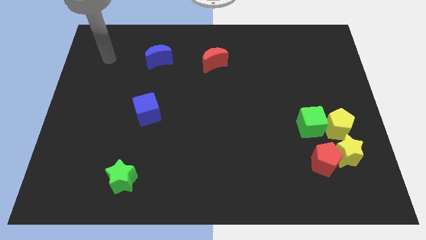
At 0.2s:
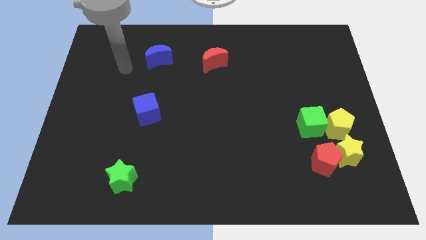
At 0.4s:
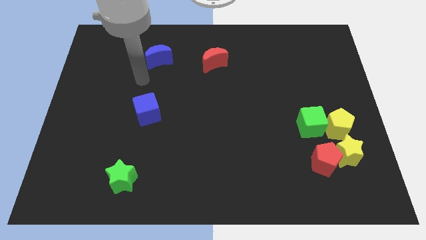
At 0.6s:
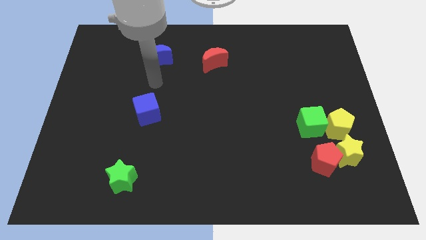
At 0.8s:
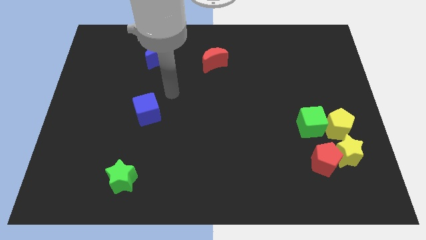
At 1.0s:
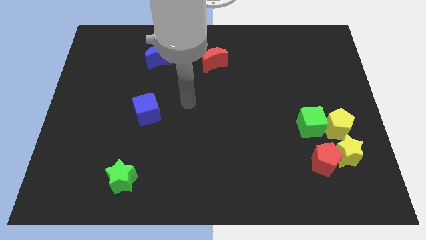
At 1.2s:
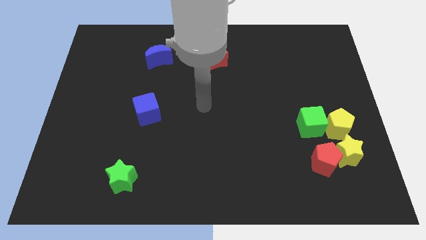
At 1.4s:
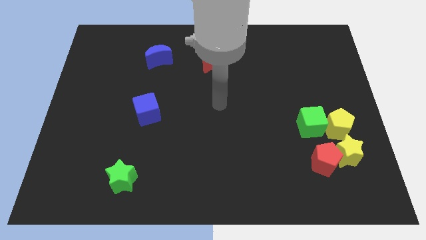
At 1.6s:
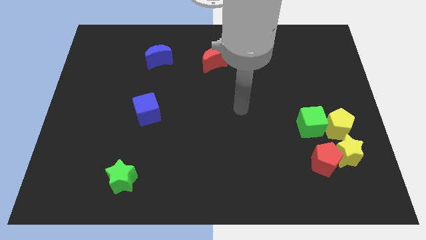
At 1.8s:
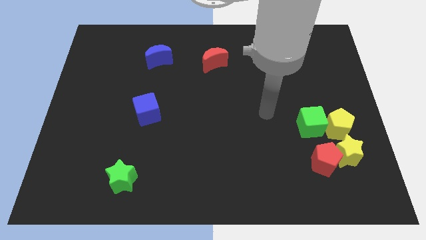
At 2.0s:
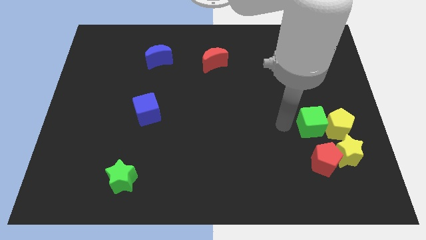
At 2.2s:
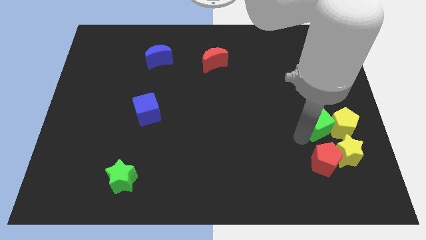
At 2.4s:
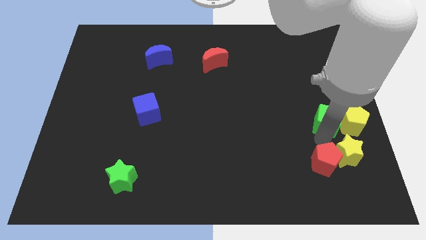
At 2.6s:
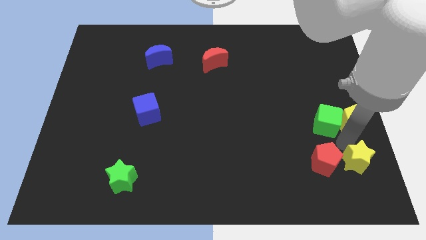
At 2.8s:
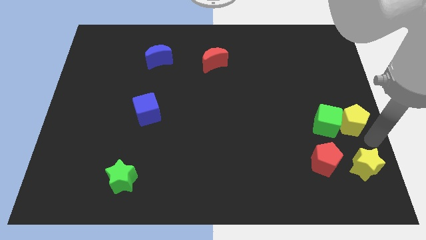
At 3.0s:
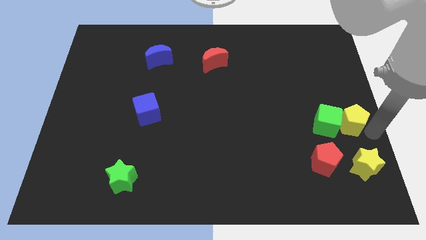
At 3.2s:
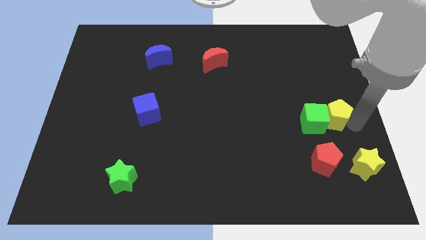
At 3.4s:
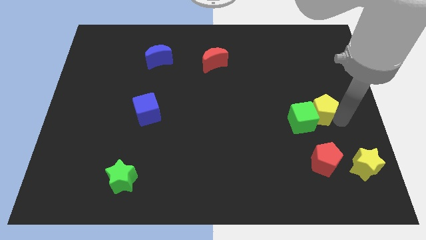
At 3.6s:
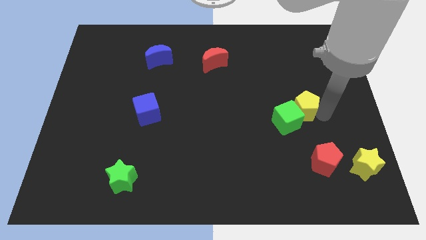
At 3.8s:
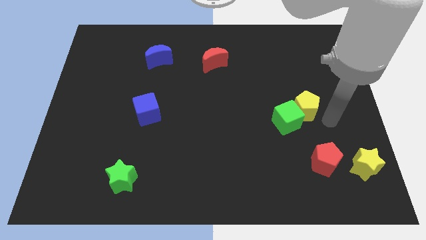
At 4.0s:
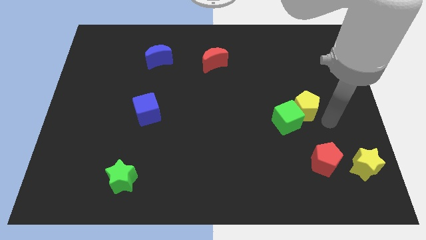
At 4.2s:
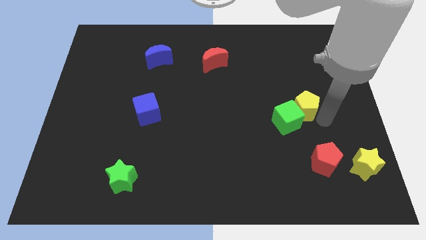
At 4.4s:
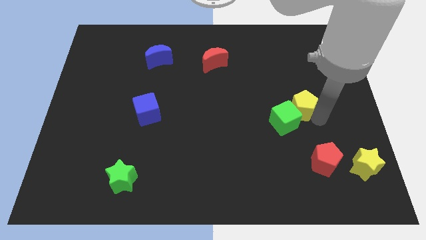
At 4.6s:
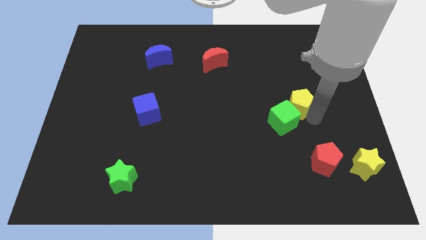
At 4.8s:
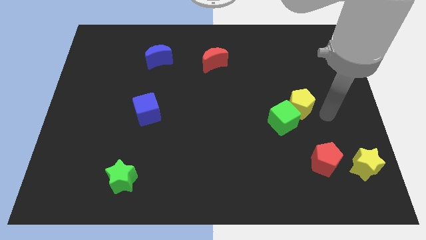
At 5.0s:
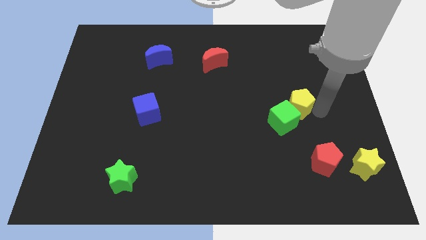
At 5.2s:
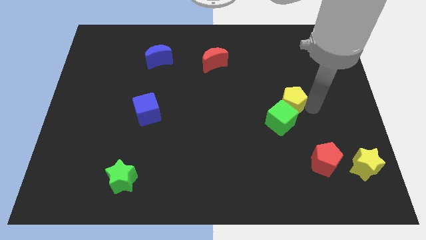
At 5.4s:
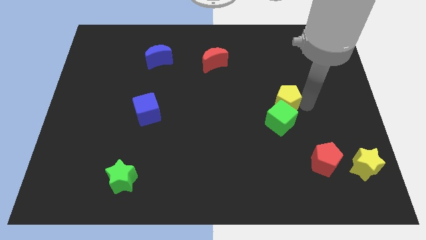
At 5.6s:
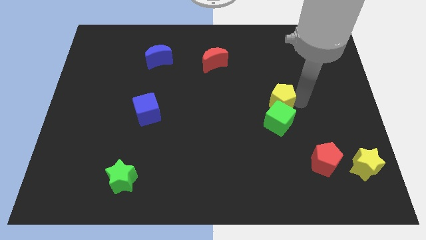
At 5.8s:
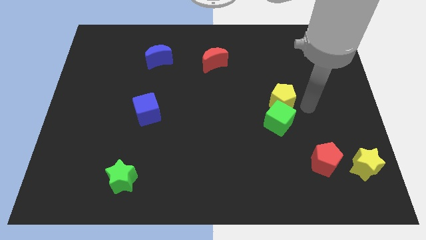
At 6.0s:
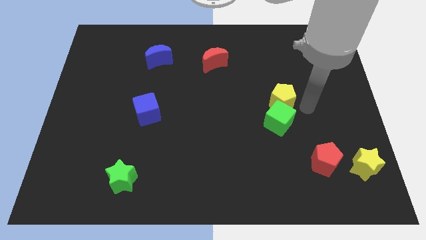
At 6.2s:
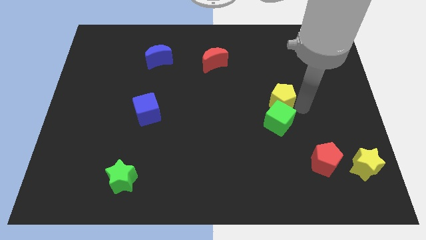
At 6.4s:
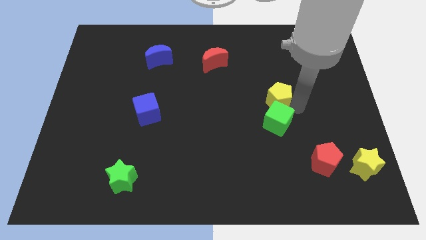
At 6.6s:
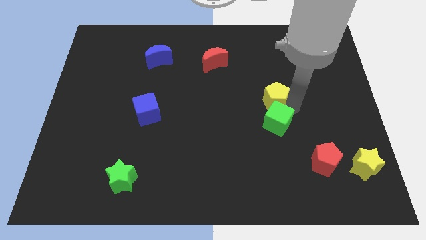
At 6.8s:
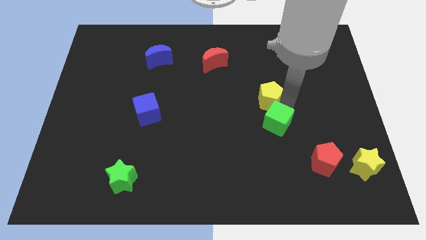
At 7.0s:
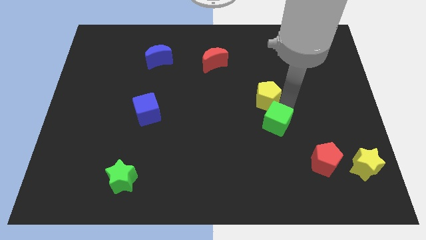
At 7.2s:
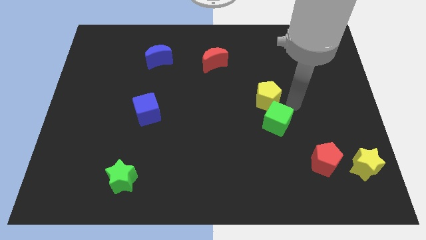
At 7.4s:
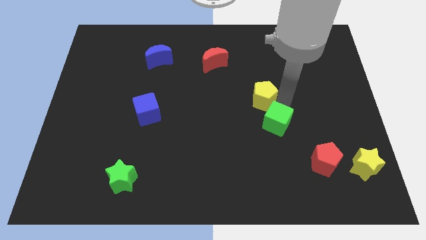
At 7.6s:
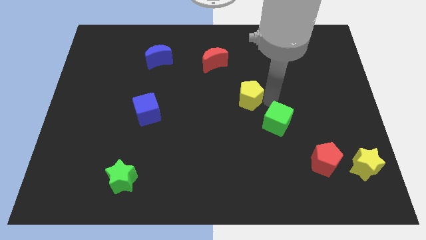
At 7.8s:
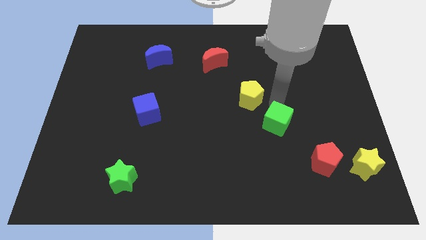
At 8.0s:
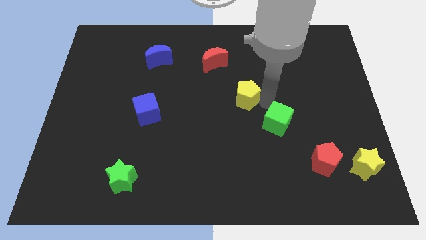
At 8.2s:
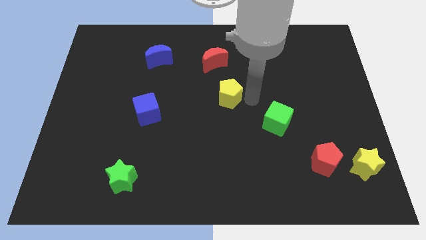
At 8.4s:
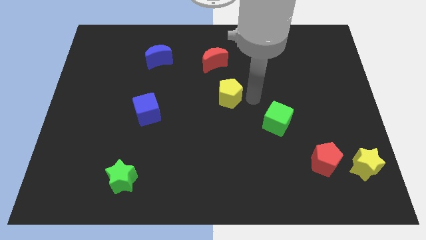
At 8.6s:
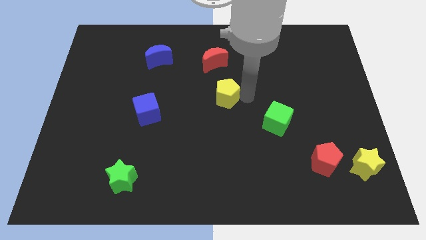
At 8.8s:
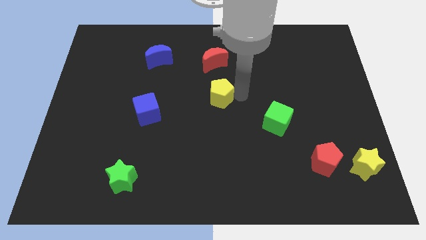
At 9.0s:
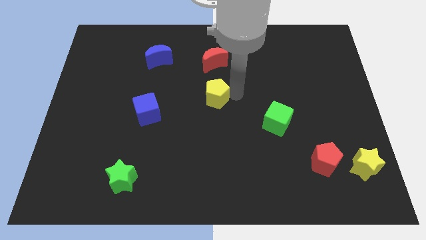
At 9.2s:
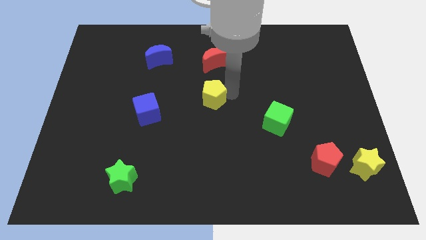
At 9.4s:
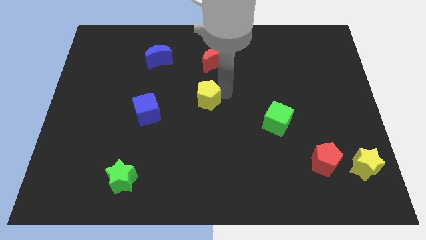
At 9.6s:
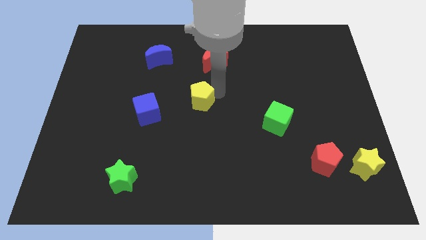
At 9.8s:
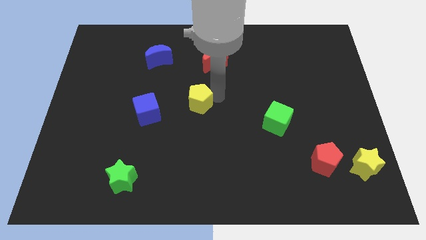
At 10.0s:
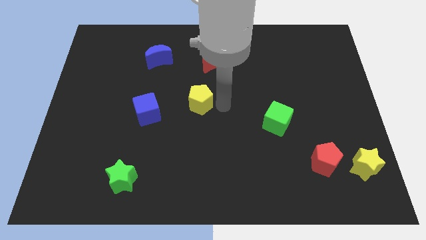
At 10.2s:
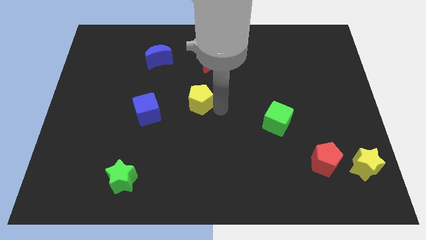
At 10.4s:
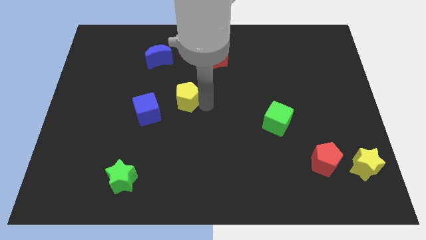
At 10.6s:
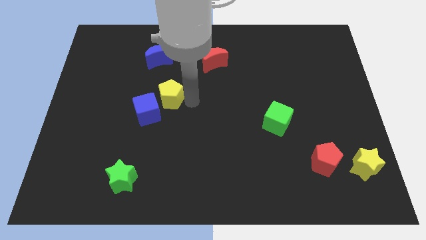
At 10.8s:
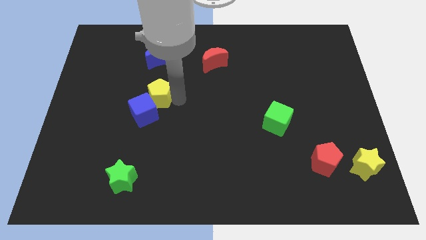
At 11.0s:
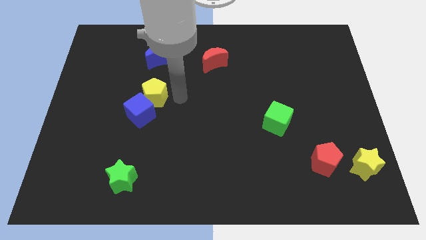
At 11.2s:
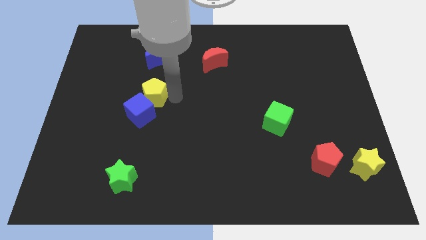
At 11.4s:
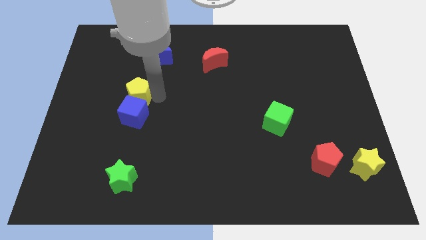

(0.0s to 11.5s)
put the yellow pentagon to the top left of the blue cube
